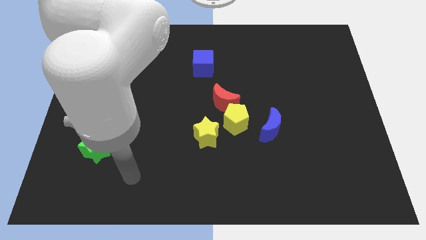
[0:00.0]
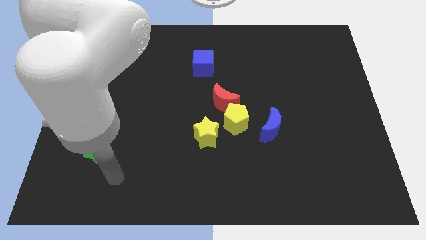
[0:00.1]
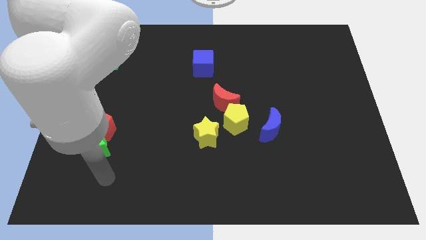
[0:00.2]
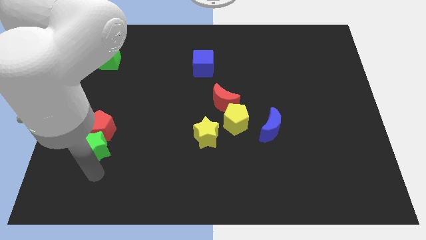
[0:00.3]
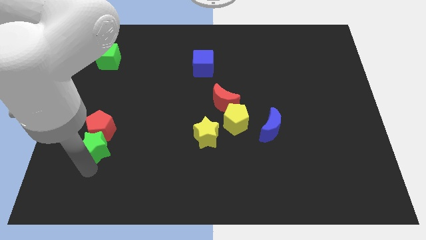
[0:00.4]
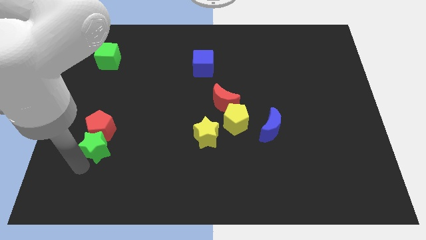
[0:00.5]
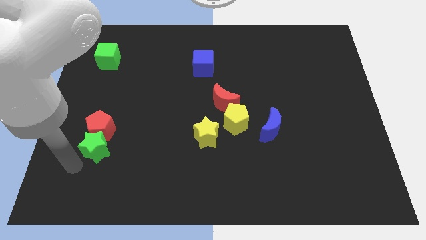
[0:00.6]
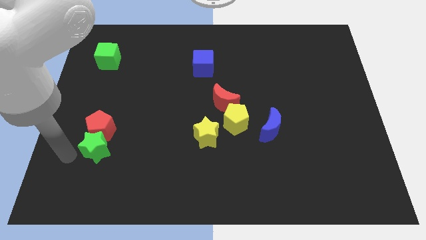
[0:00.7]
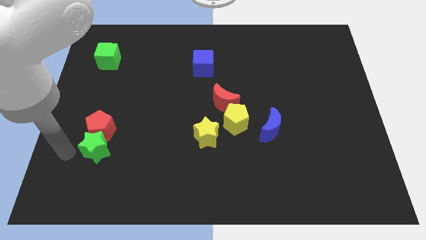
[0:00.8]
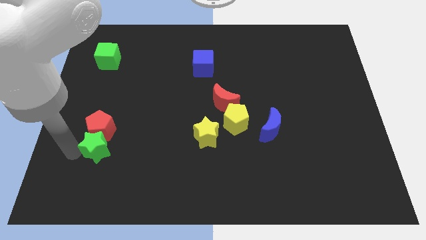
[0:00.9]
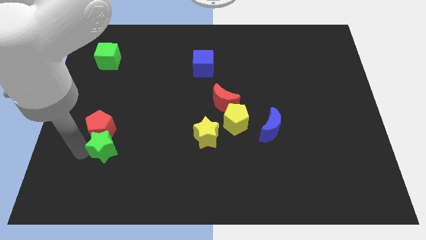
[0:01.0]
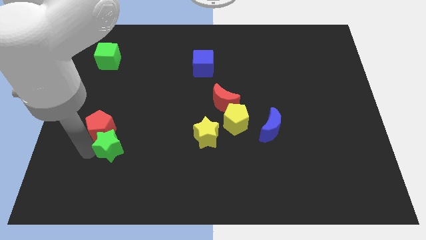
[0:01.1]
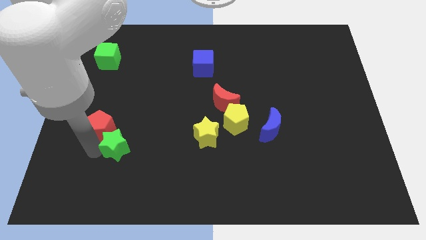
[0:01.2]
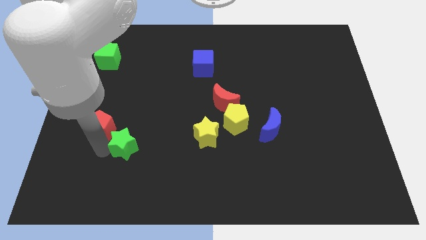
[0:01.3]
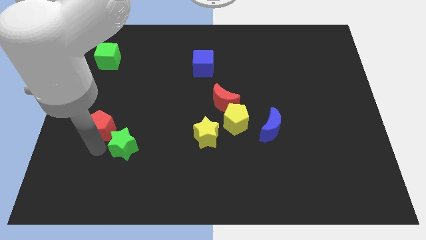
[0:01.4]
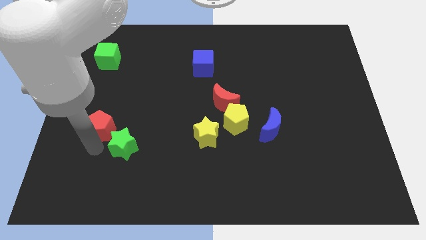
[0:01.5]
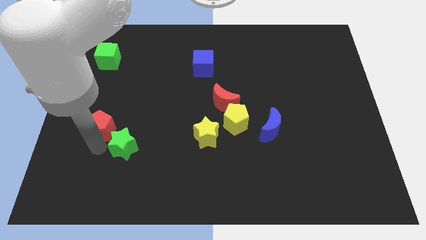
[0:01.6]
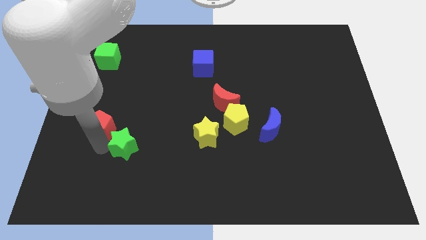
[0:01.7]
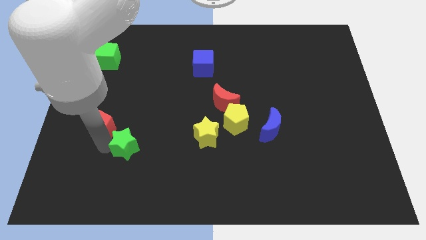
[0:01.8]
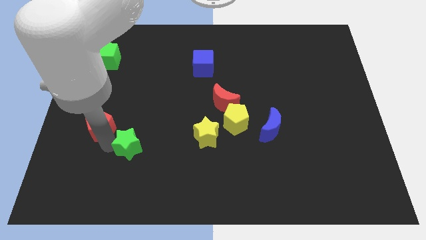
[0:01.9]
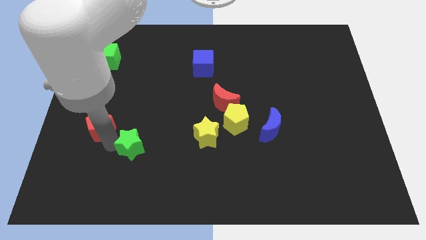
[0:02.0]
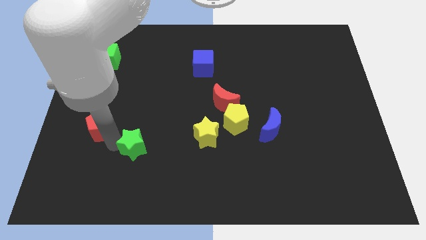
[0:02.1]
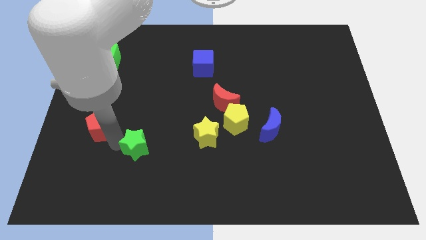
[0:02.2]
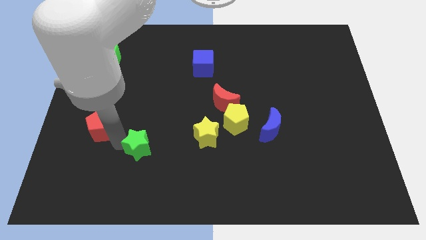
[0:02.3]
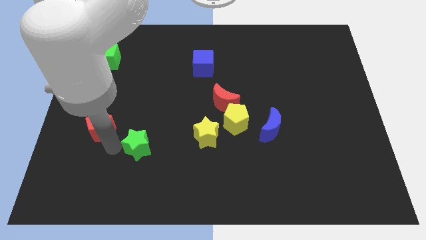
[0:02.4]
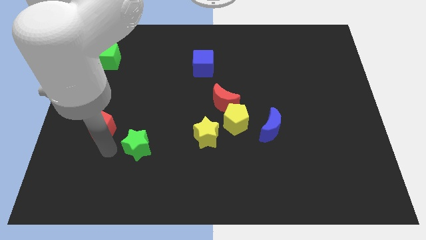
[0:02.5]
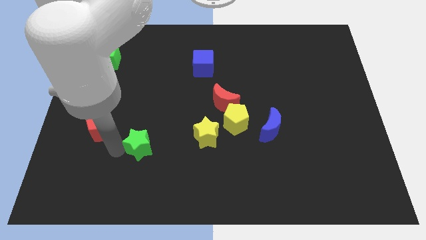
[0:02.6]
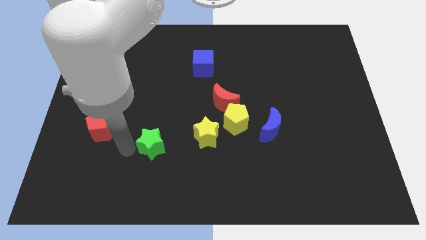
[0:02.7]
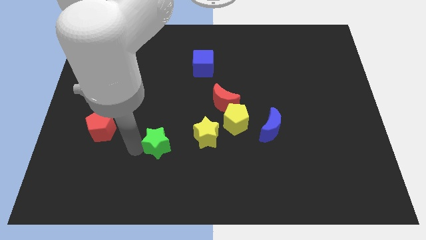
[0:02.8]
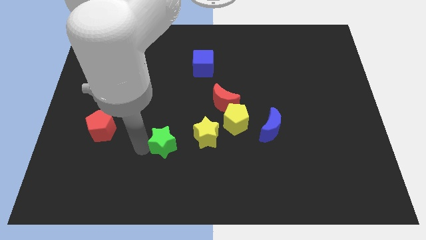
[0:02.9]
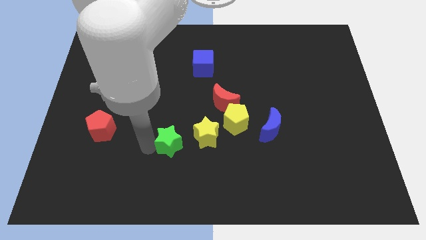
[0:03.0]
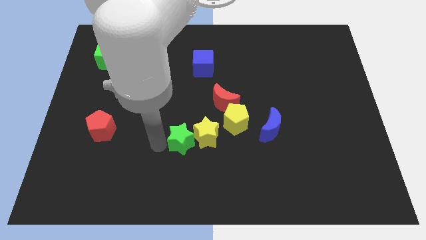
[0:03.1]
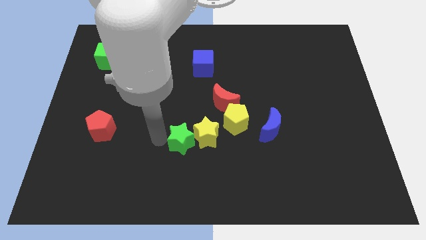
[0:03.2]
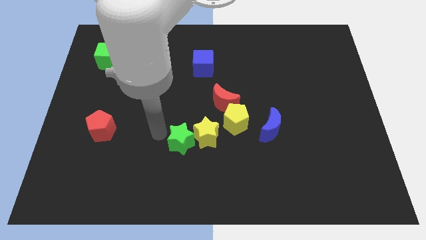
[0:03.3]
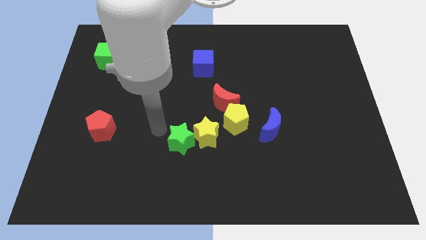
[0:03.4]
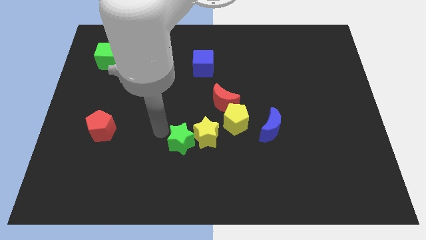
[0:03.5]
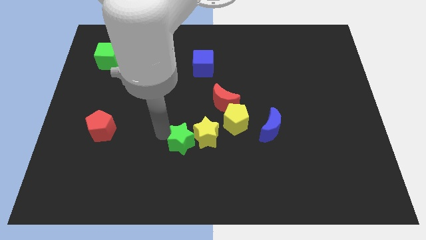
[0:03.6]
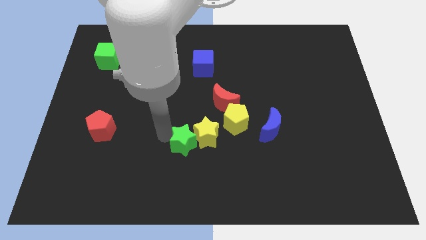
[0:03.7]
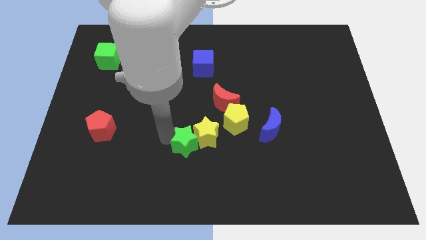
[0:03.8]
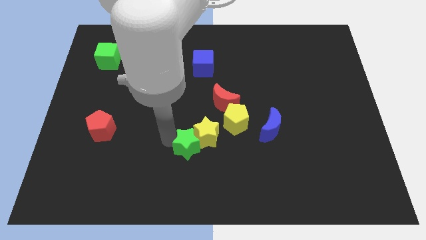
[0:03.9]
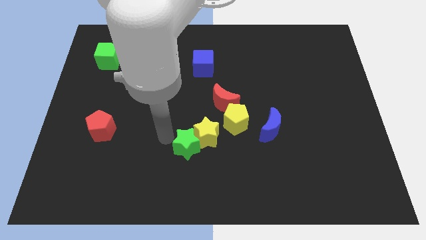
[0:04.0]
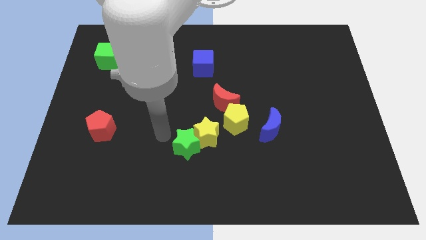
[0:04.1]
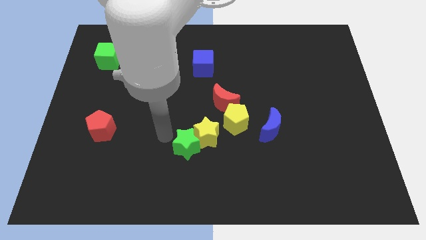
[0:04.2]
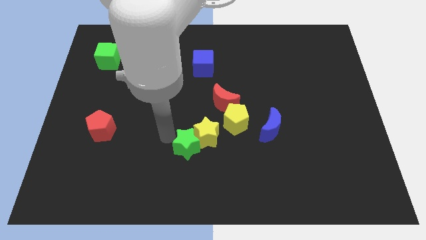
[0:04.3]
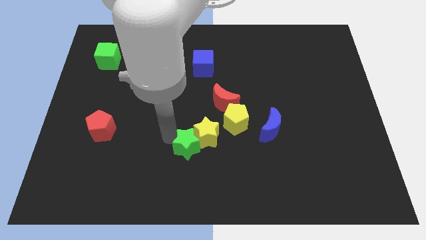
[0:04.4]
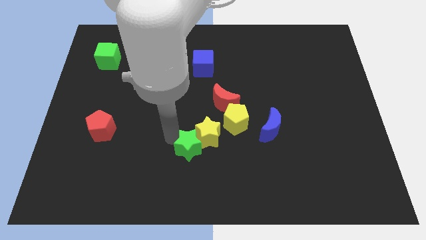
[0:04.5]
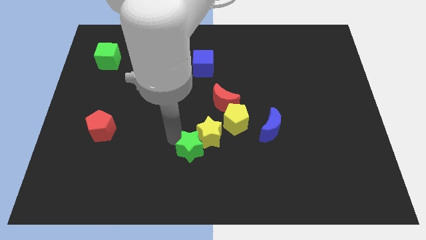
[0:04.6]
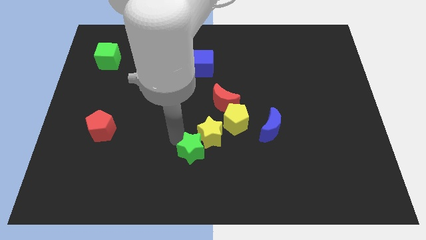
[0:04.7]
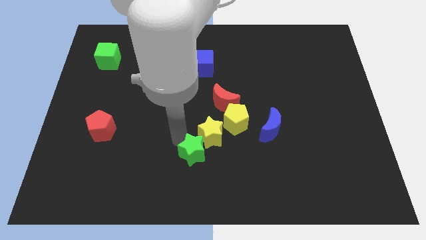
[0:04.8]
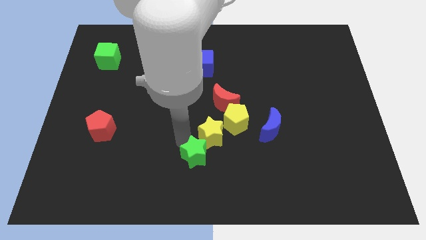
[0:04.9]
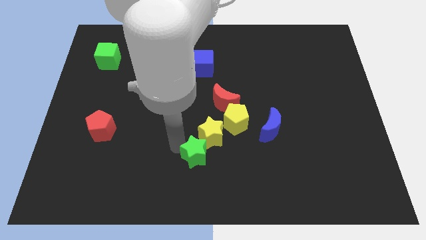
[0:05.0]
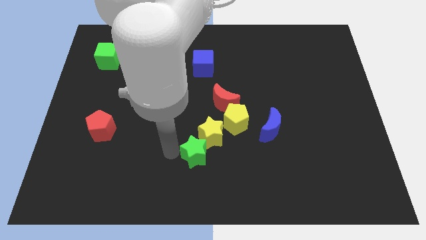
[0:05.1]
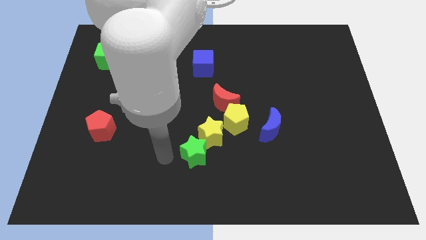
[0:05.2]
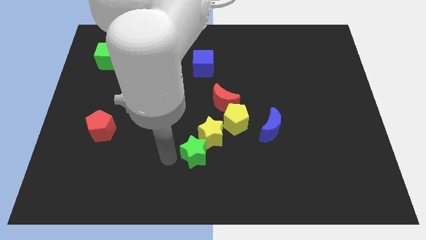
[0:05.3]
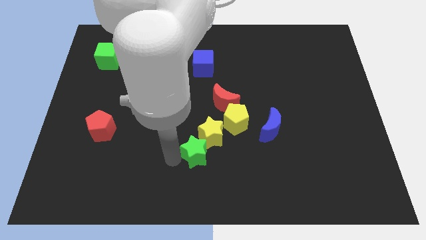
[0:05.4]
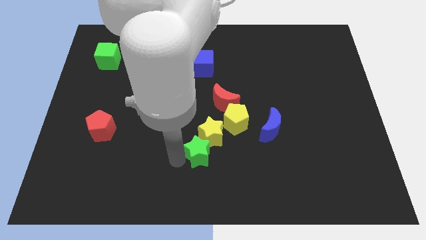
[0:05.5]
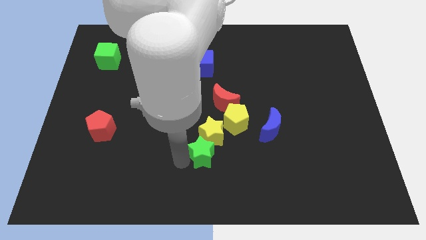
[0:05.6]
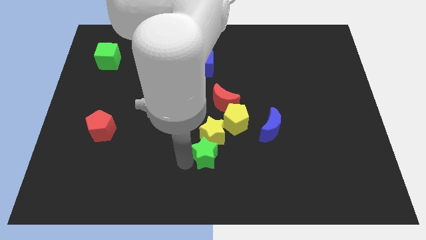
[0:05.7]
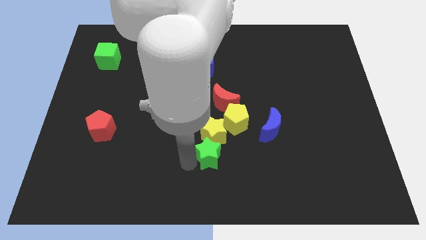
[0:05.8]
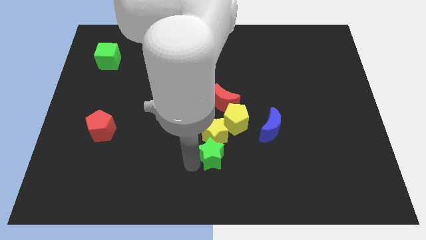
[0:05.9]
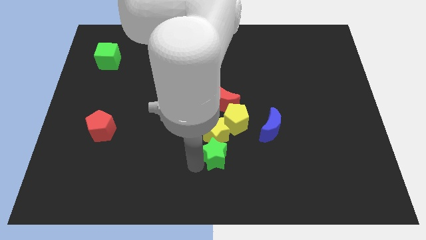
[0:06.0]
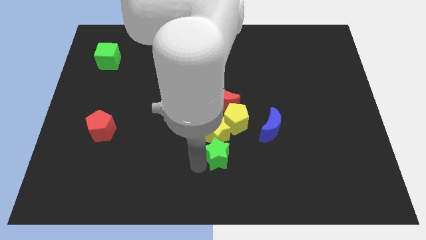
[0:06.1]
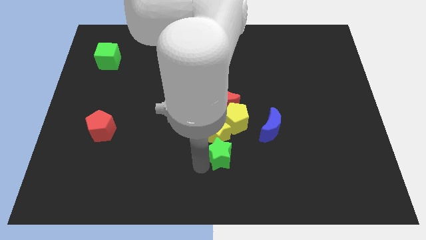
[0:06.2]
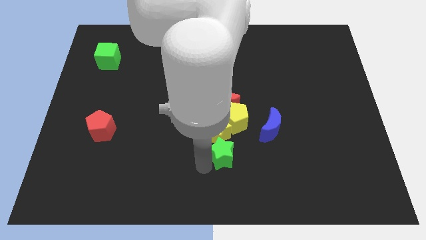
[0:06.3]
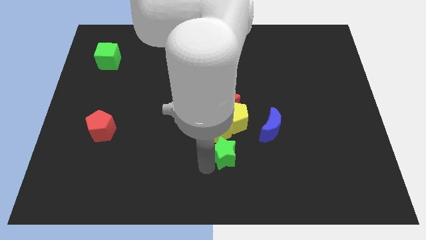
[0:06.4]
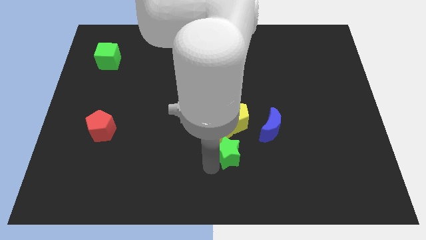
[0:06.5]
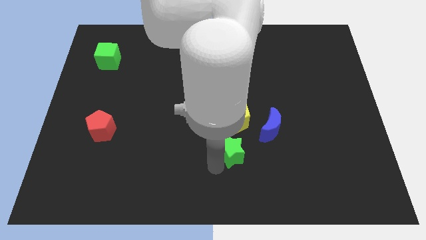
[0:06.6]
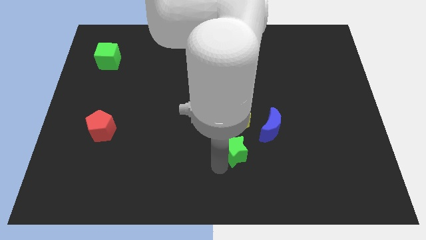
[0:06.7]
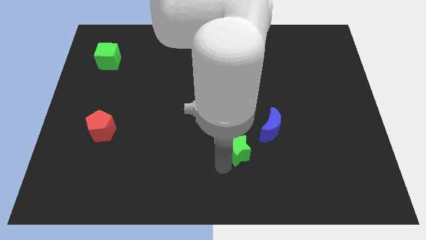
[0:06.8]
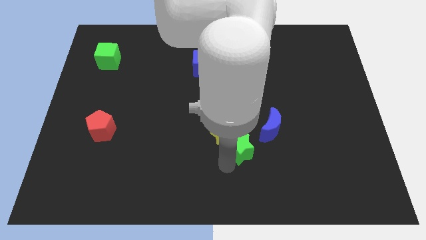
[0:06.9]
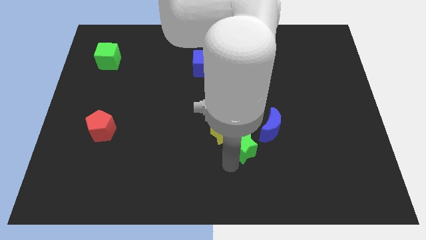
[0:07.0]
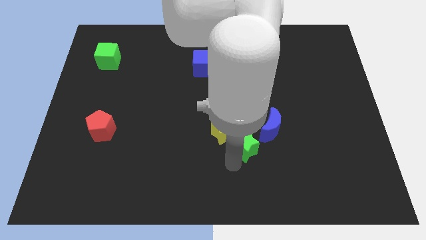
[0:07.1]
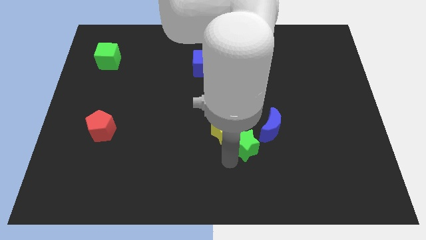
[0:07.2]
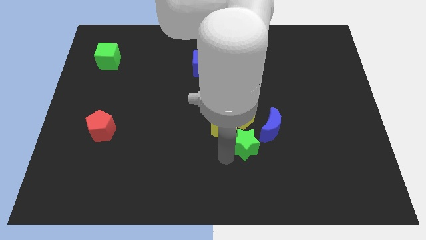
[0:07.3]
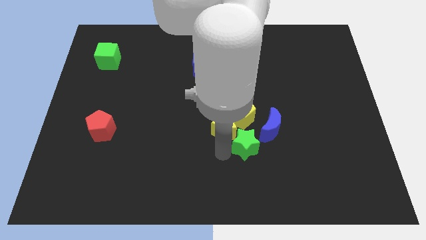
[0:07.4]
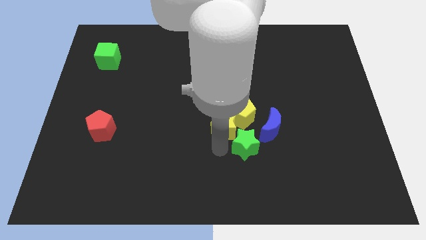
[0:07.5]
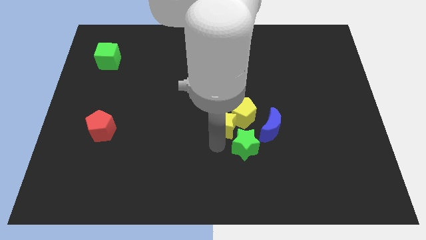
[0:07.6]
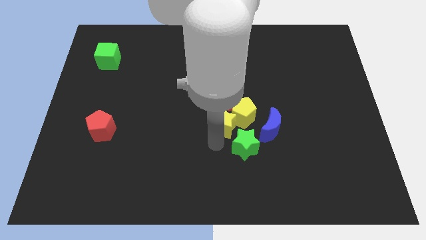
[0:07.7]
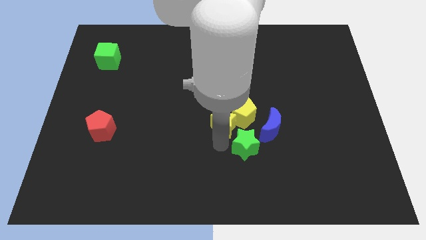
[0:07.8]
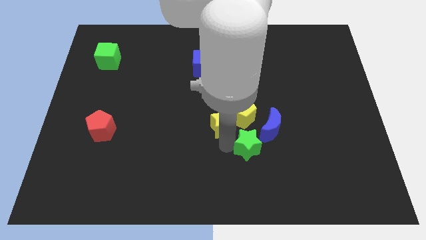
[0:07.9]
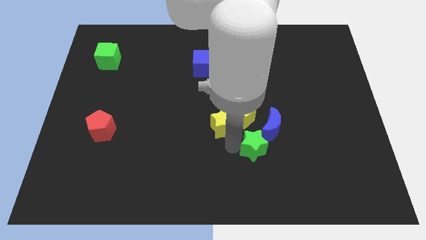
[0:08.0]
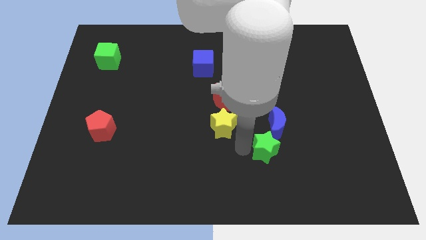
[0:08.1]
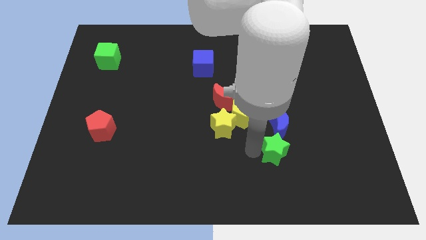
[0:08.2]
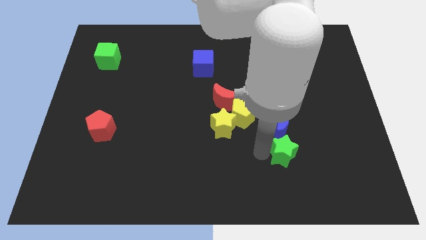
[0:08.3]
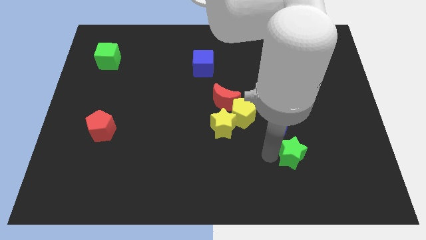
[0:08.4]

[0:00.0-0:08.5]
put the green star diagonally down and to the right of the blue moon
